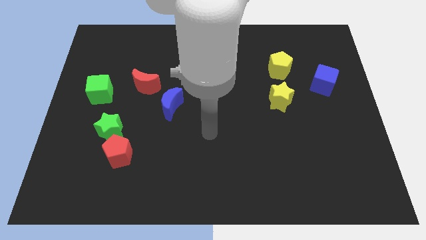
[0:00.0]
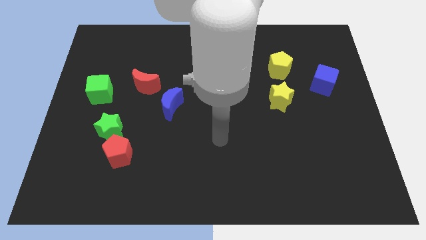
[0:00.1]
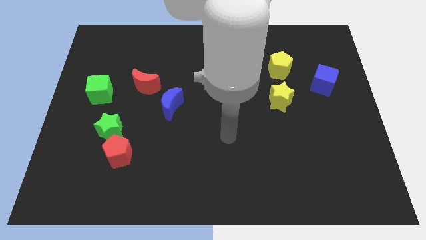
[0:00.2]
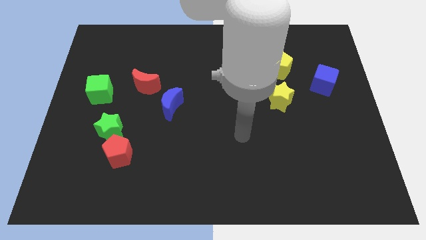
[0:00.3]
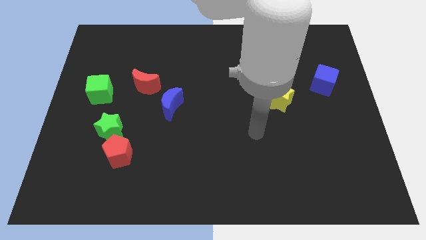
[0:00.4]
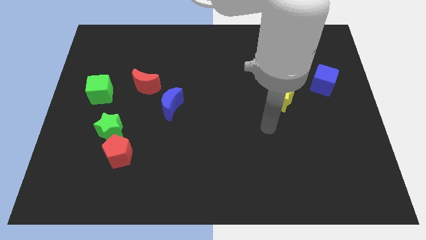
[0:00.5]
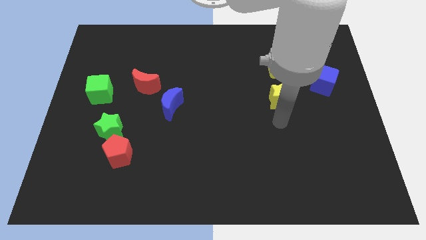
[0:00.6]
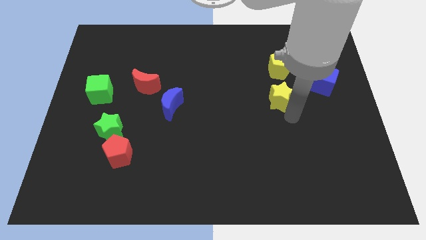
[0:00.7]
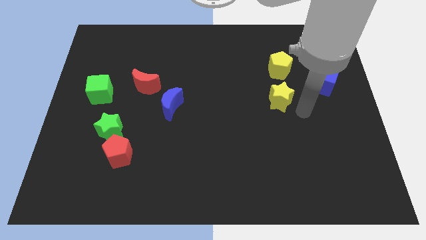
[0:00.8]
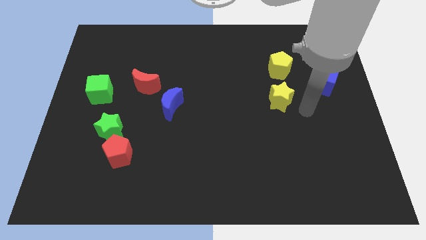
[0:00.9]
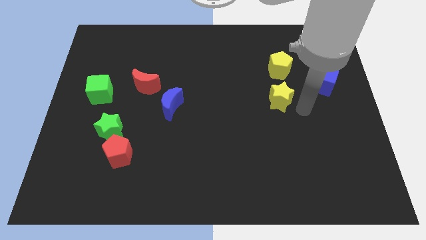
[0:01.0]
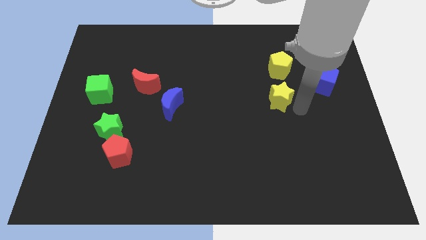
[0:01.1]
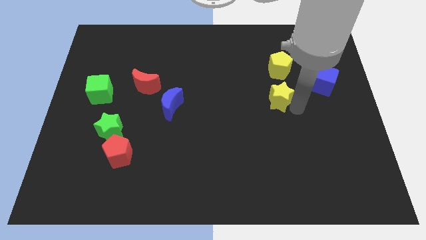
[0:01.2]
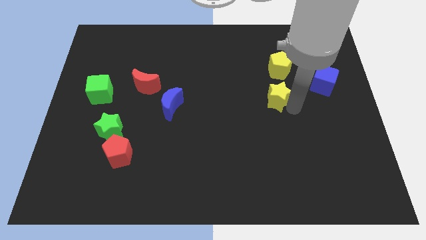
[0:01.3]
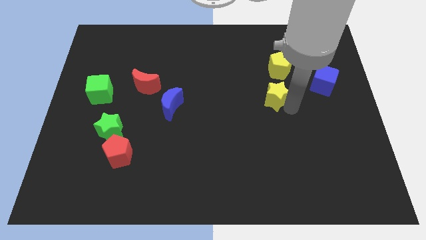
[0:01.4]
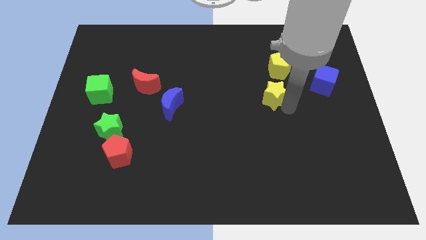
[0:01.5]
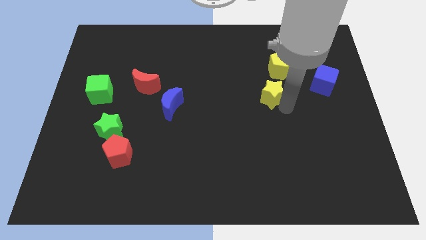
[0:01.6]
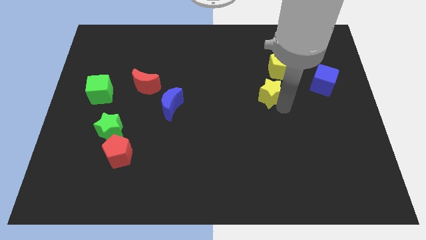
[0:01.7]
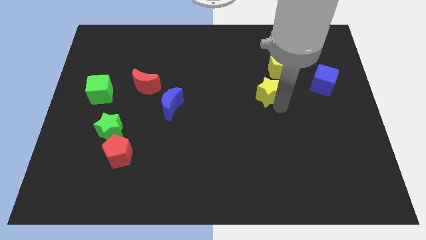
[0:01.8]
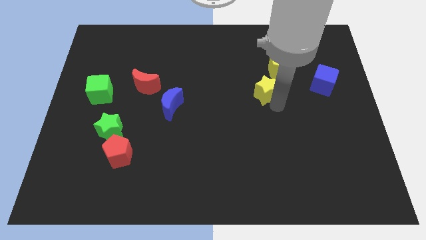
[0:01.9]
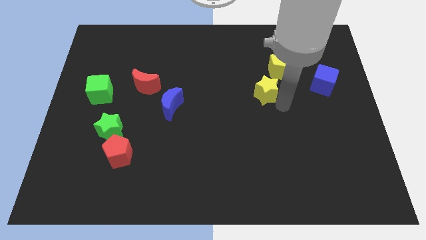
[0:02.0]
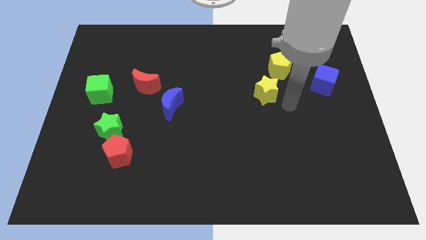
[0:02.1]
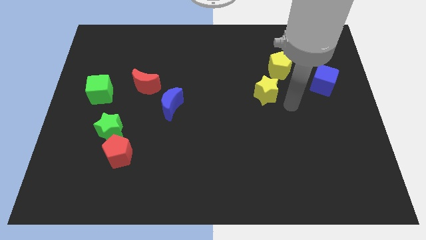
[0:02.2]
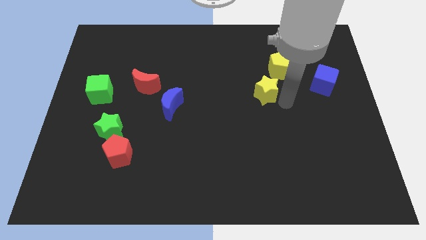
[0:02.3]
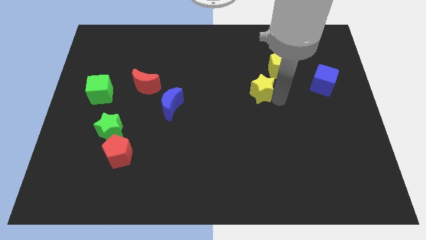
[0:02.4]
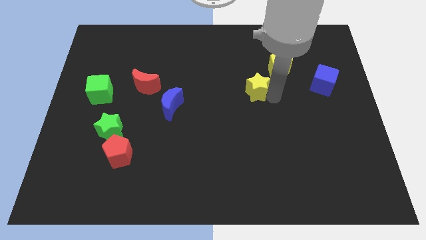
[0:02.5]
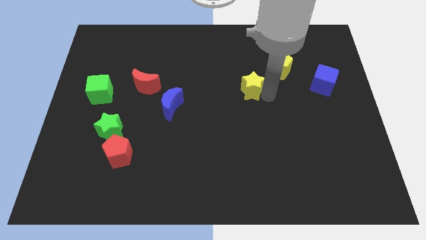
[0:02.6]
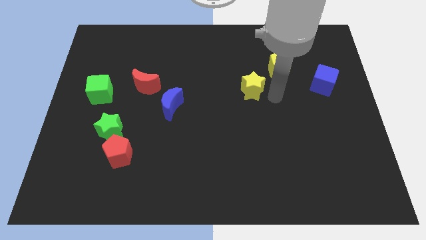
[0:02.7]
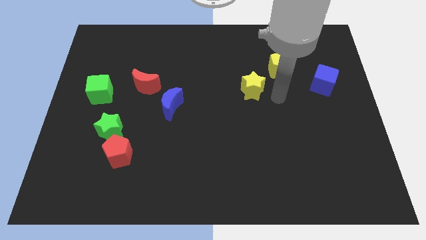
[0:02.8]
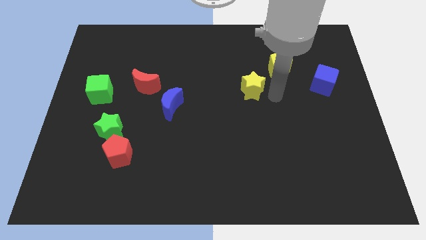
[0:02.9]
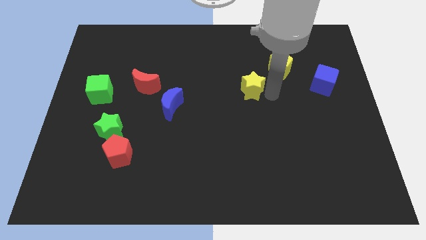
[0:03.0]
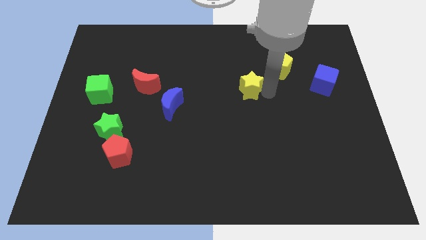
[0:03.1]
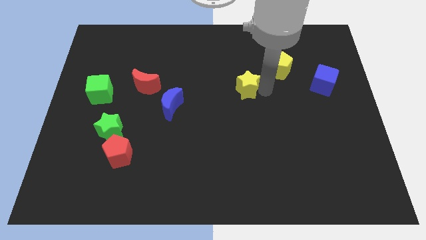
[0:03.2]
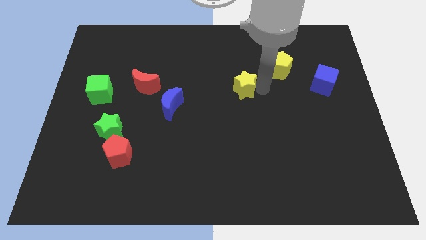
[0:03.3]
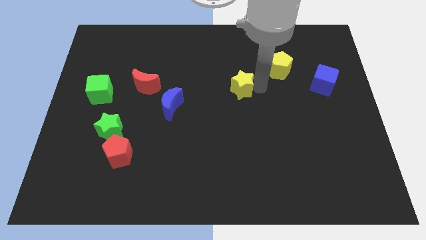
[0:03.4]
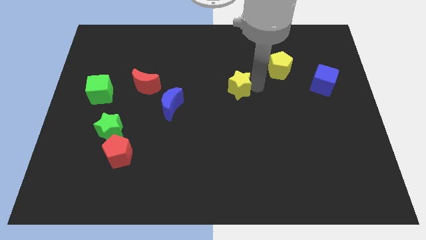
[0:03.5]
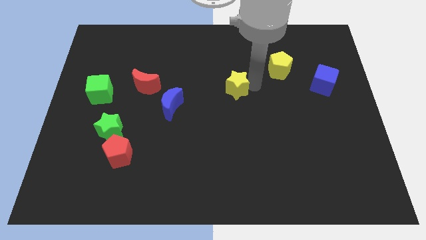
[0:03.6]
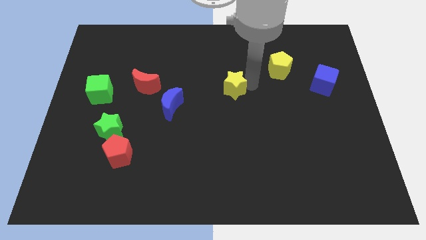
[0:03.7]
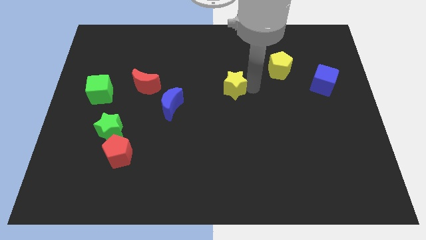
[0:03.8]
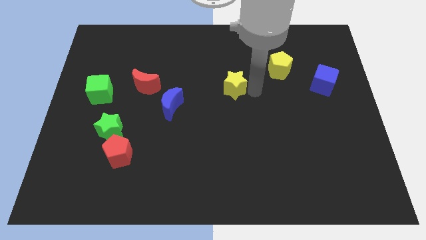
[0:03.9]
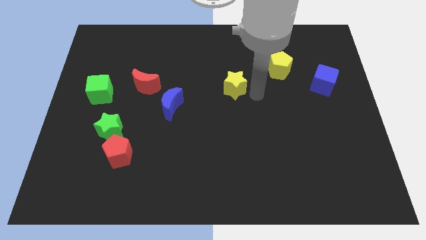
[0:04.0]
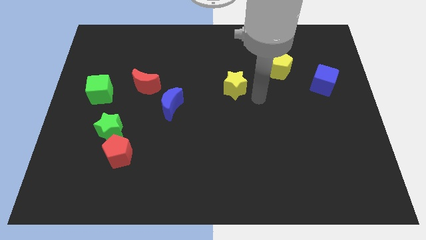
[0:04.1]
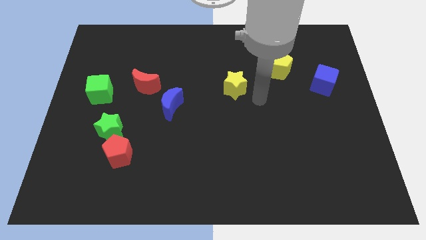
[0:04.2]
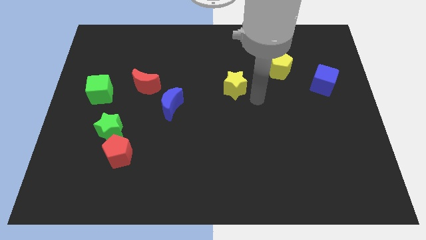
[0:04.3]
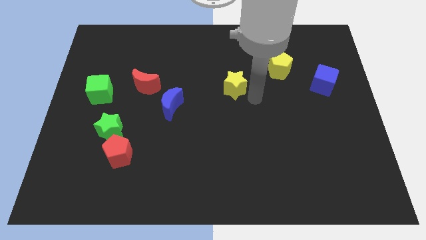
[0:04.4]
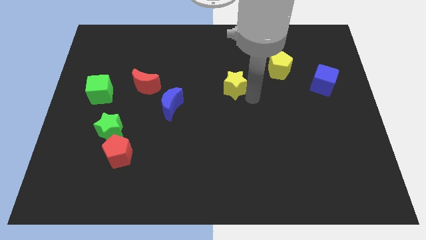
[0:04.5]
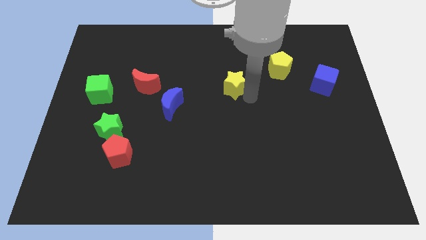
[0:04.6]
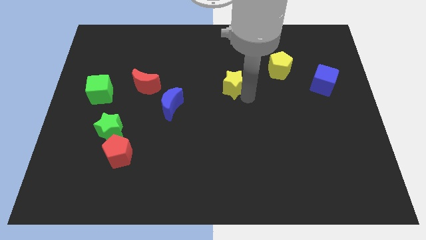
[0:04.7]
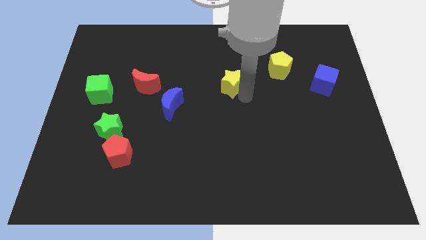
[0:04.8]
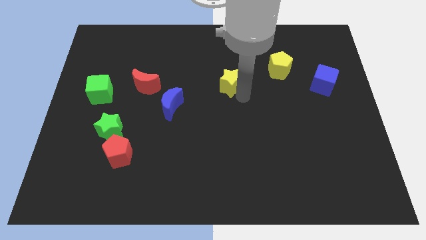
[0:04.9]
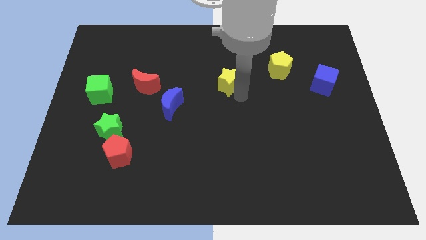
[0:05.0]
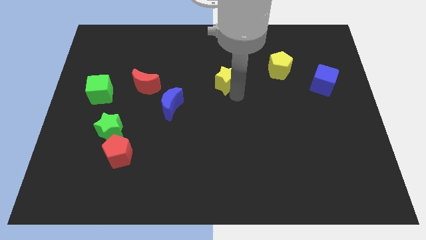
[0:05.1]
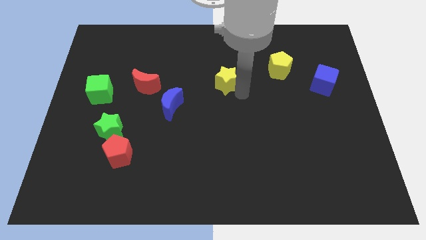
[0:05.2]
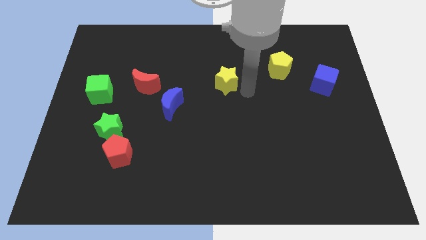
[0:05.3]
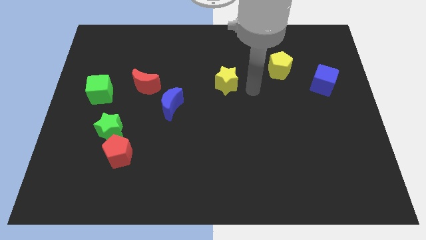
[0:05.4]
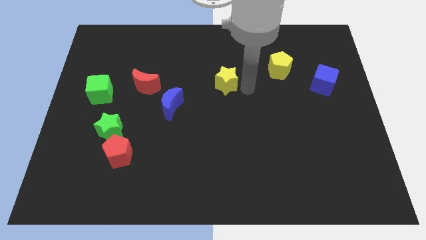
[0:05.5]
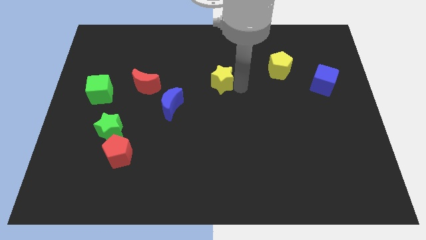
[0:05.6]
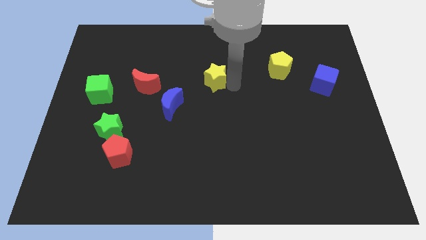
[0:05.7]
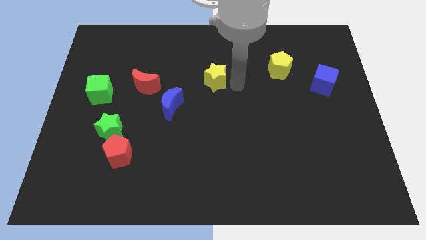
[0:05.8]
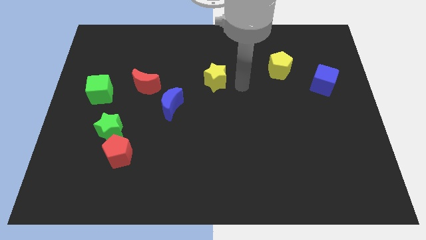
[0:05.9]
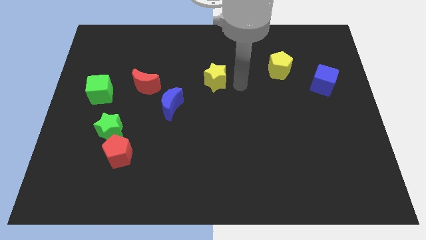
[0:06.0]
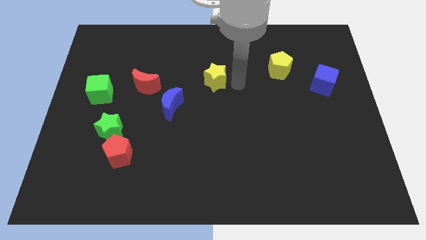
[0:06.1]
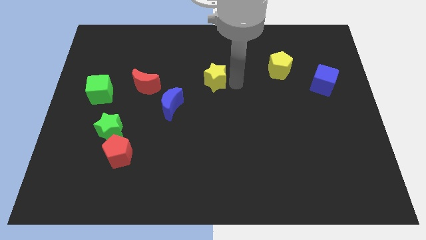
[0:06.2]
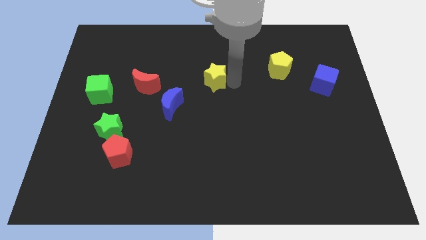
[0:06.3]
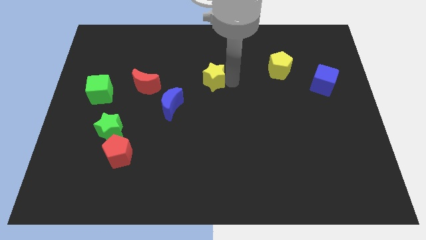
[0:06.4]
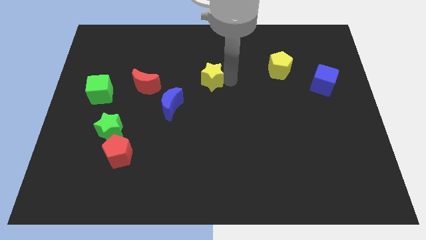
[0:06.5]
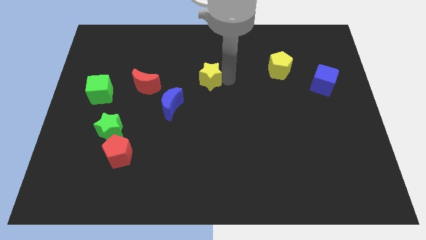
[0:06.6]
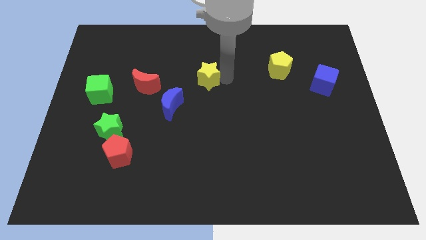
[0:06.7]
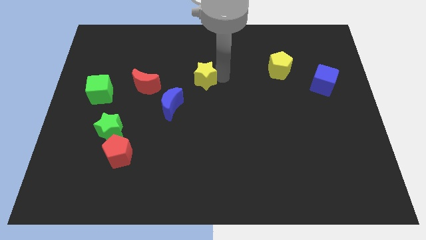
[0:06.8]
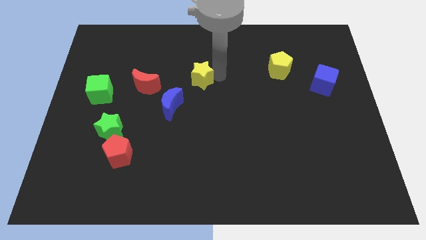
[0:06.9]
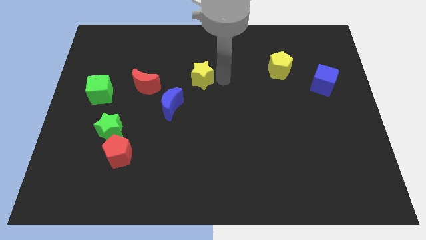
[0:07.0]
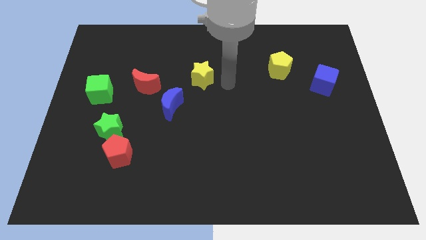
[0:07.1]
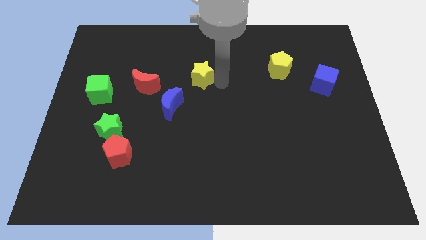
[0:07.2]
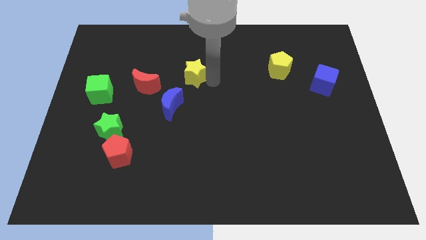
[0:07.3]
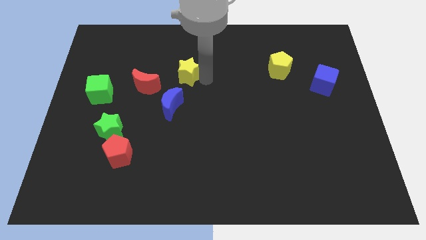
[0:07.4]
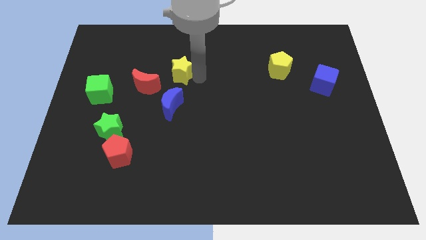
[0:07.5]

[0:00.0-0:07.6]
move the yellow star diagonally up and to the right of the red moon

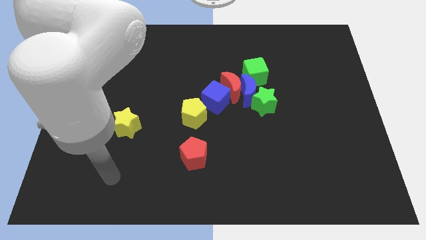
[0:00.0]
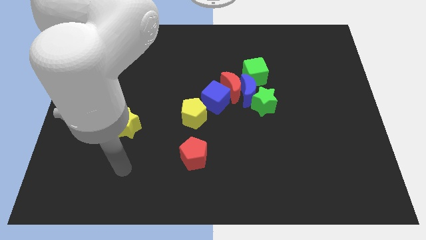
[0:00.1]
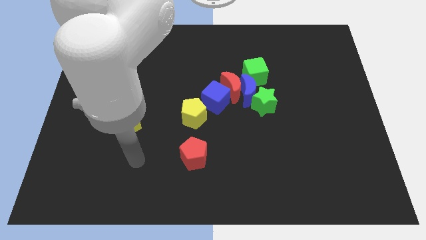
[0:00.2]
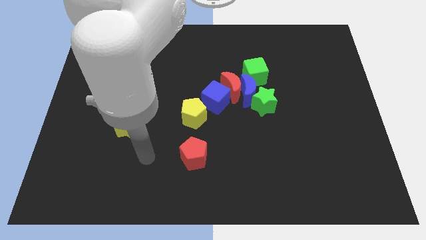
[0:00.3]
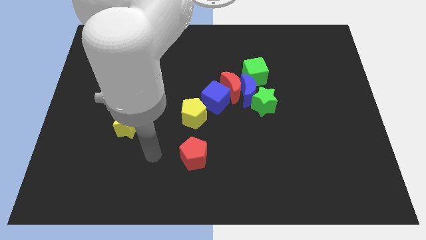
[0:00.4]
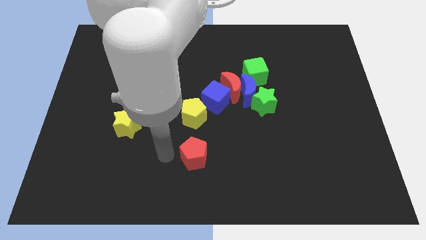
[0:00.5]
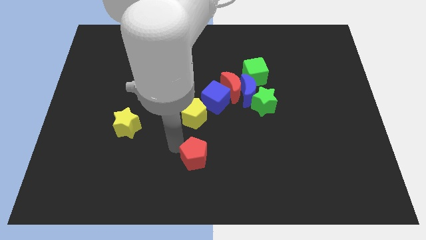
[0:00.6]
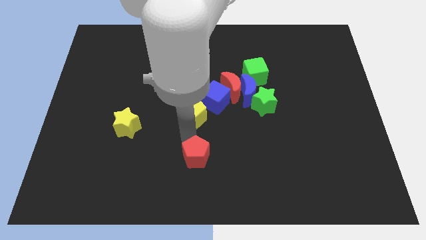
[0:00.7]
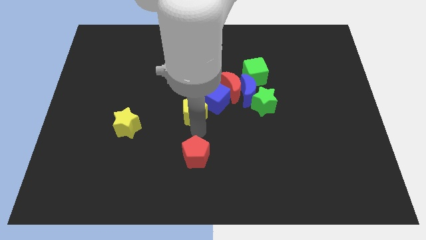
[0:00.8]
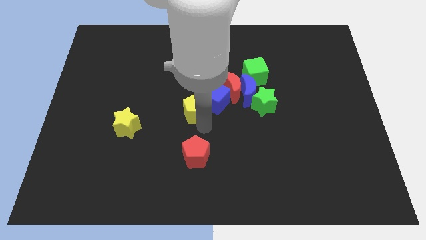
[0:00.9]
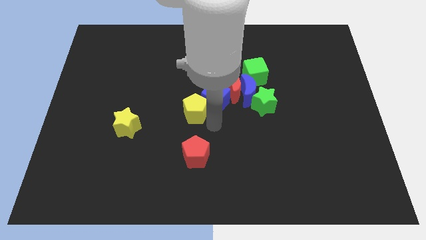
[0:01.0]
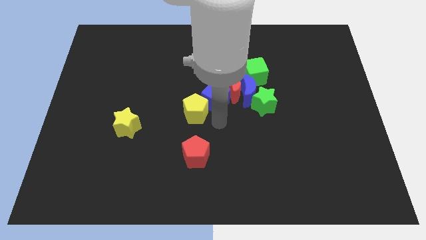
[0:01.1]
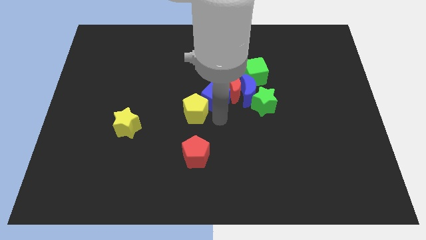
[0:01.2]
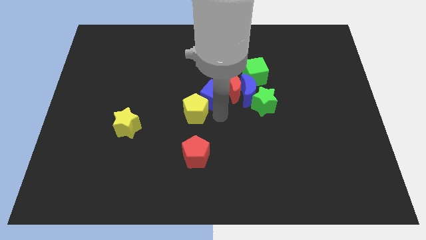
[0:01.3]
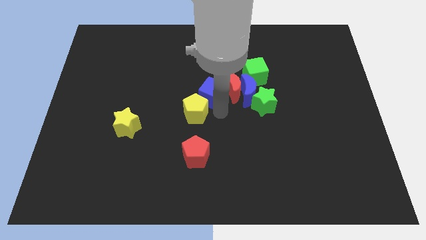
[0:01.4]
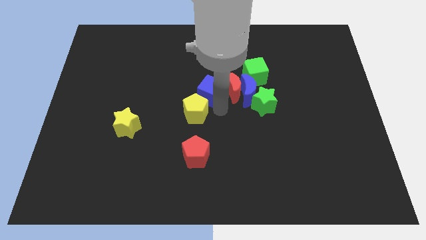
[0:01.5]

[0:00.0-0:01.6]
slide the blue cube to the top left side of the red moon
